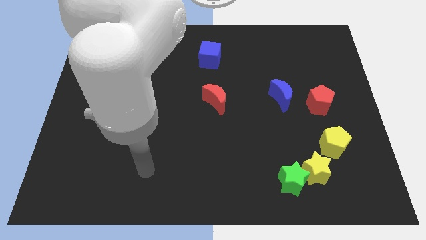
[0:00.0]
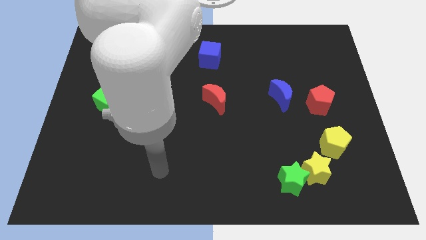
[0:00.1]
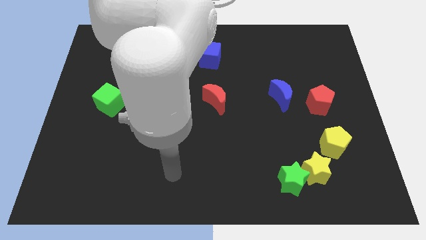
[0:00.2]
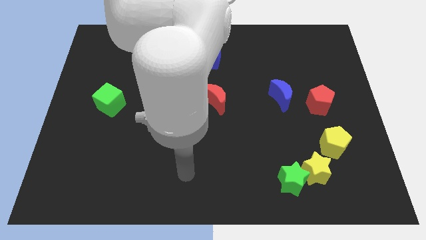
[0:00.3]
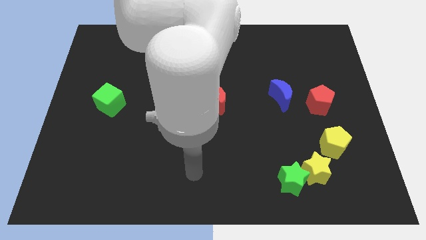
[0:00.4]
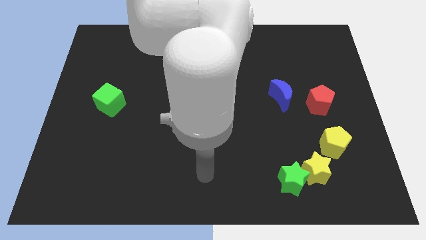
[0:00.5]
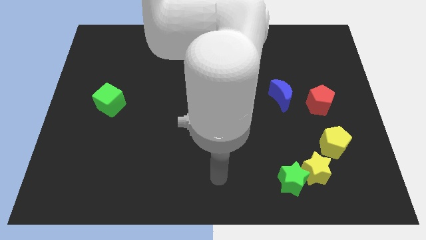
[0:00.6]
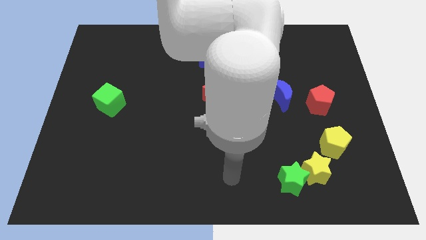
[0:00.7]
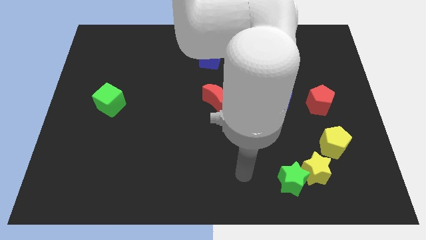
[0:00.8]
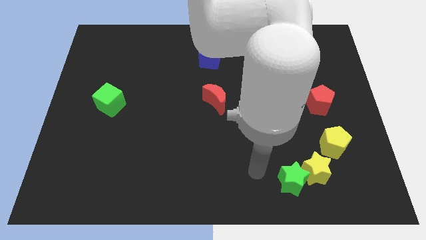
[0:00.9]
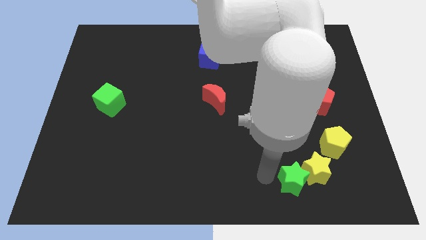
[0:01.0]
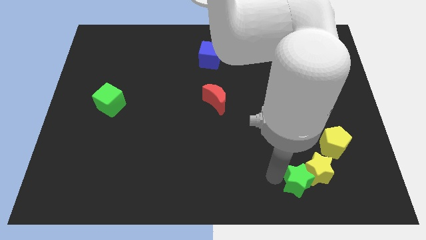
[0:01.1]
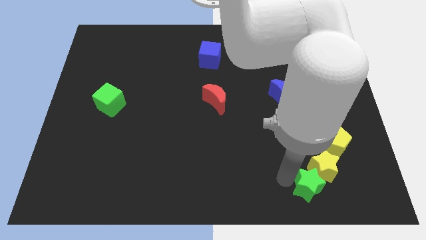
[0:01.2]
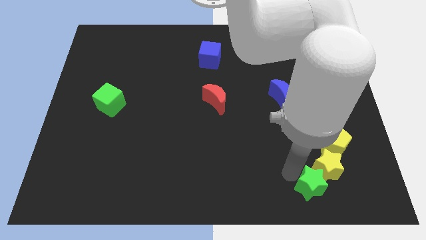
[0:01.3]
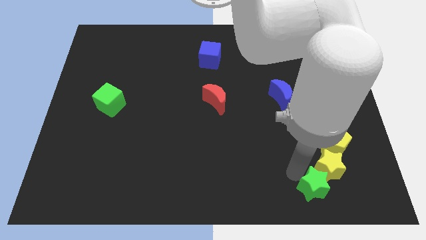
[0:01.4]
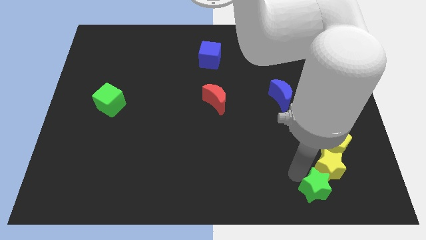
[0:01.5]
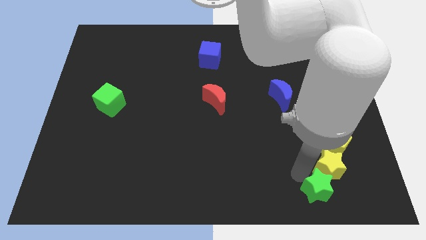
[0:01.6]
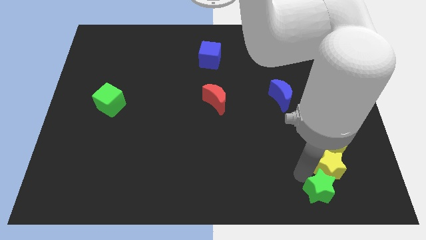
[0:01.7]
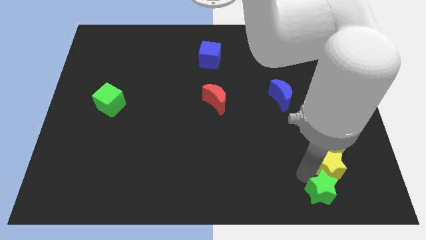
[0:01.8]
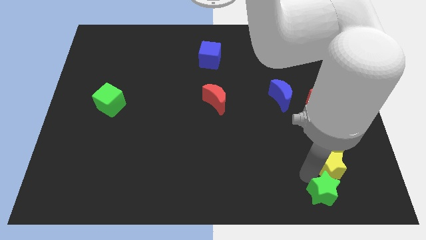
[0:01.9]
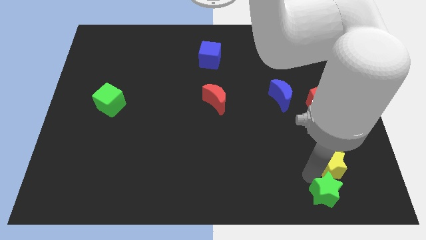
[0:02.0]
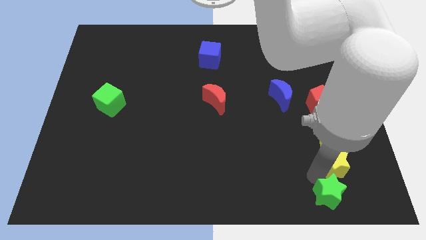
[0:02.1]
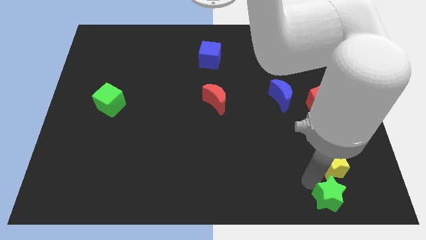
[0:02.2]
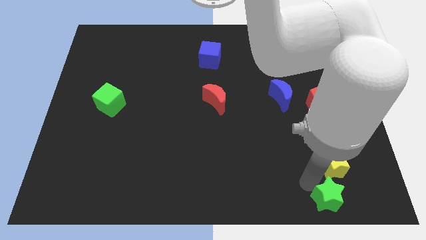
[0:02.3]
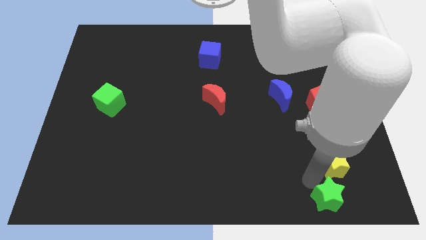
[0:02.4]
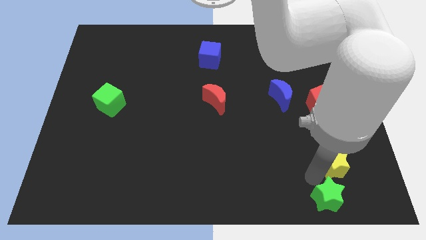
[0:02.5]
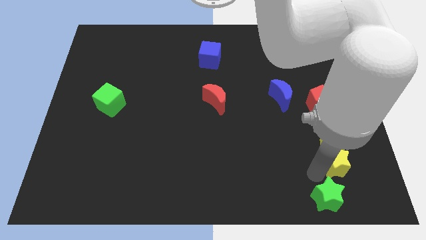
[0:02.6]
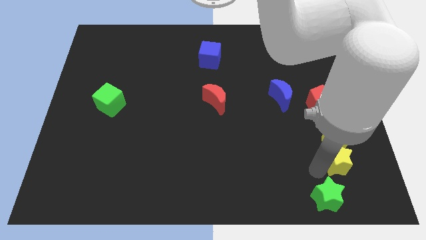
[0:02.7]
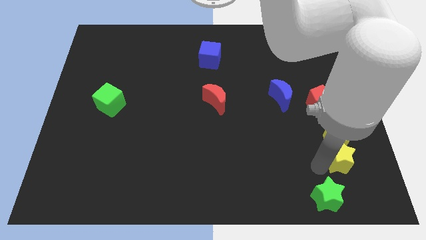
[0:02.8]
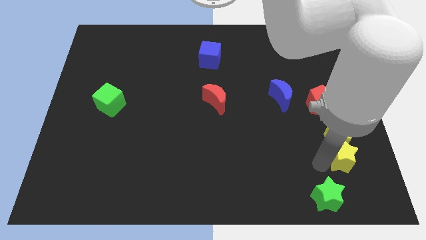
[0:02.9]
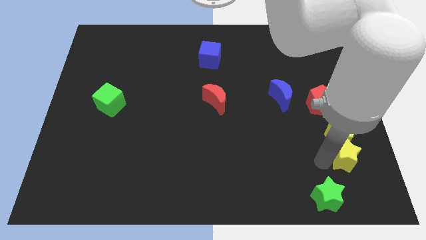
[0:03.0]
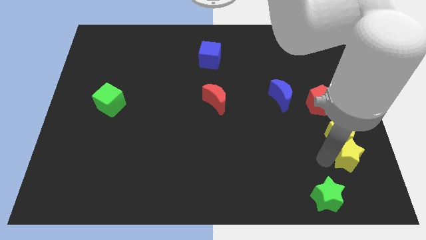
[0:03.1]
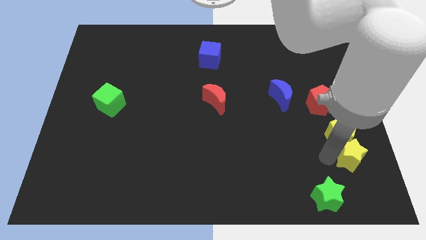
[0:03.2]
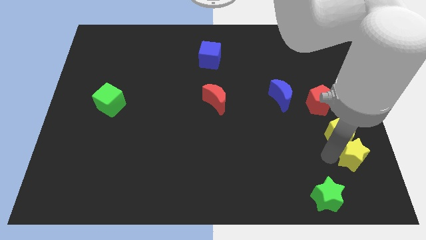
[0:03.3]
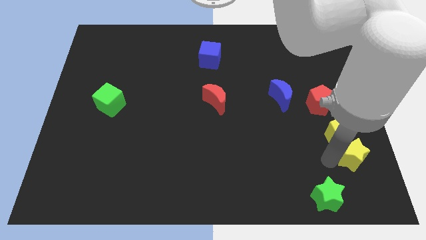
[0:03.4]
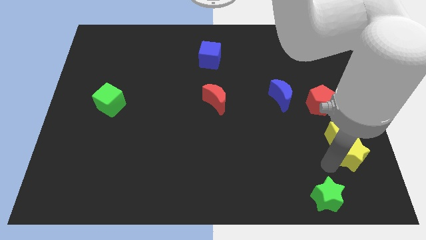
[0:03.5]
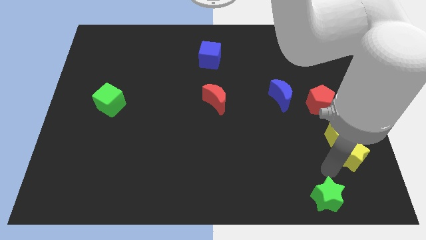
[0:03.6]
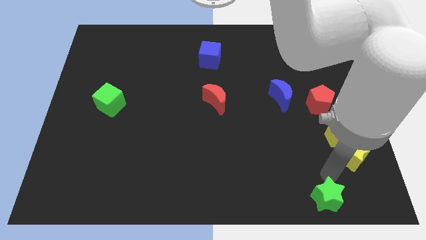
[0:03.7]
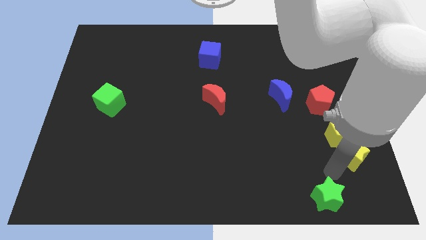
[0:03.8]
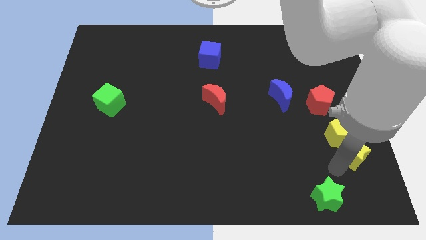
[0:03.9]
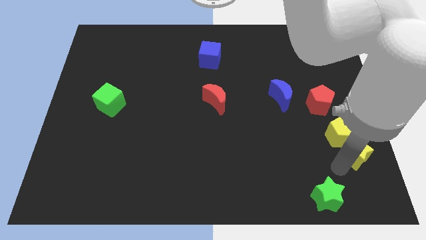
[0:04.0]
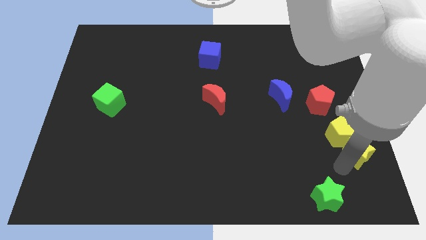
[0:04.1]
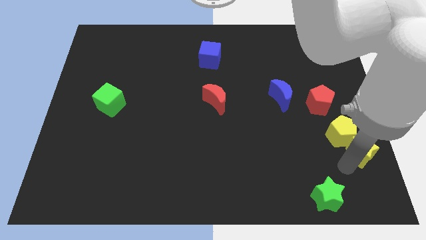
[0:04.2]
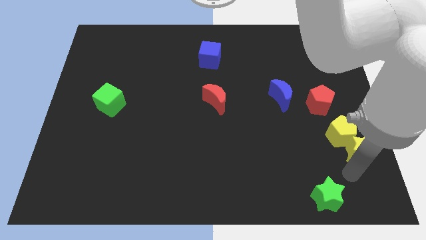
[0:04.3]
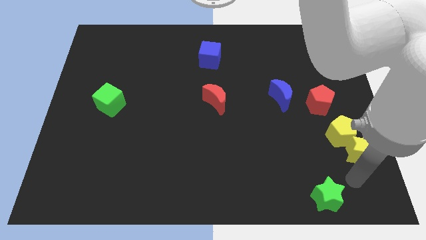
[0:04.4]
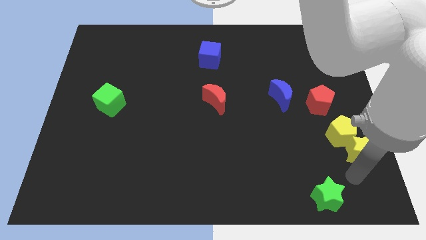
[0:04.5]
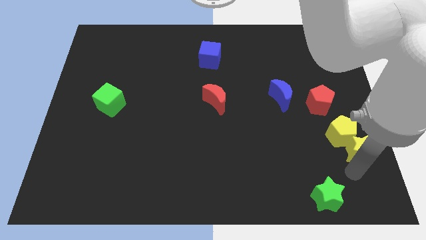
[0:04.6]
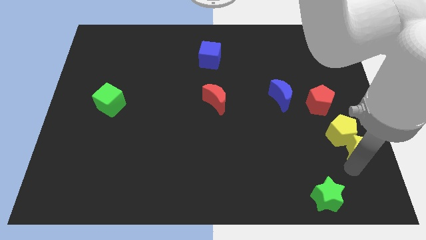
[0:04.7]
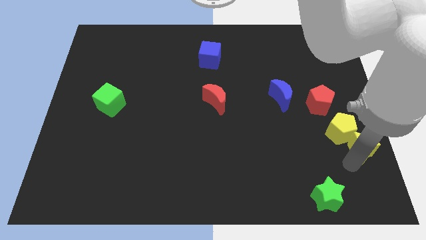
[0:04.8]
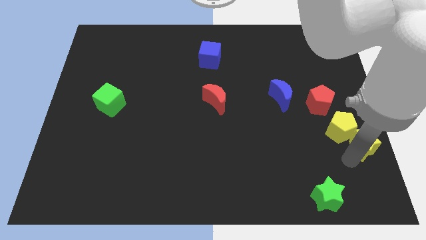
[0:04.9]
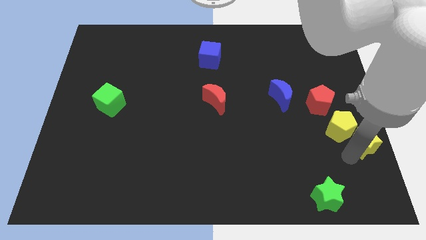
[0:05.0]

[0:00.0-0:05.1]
slide the yellow star to the right side

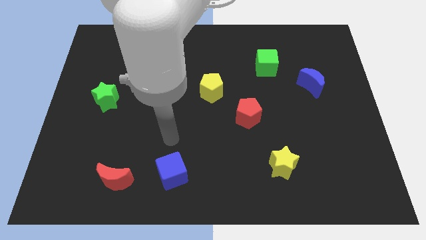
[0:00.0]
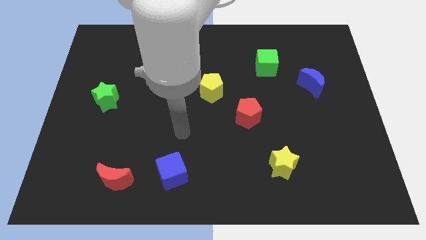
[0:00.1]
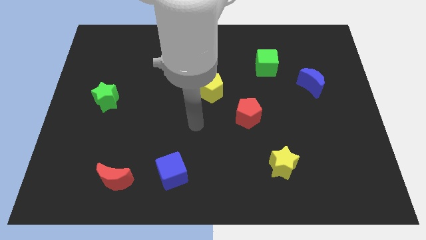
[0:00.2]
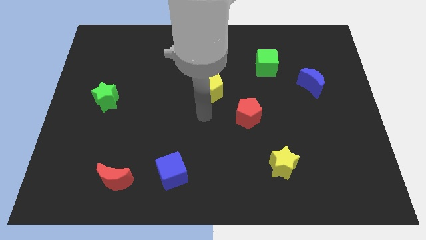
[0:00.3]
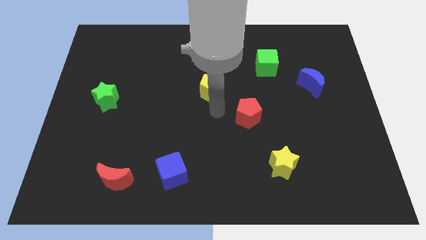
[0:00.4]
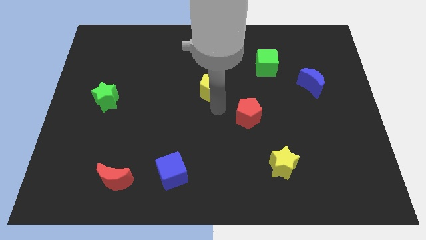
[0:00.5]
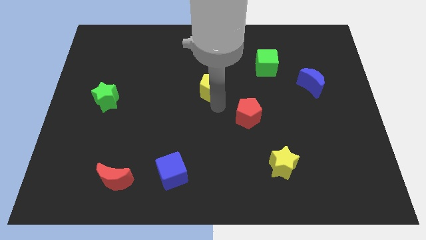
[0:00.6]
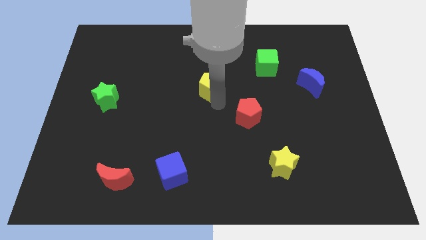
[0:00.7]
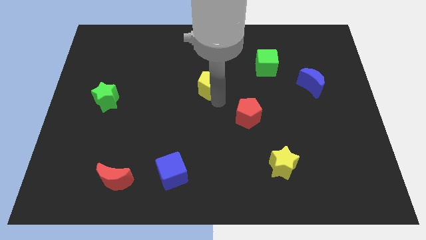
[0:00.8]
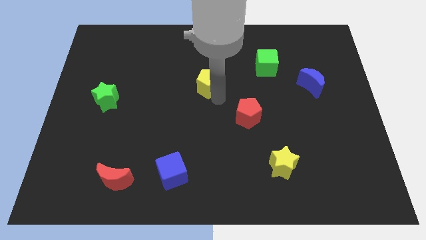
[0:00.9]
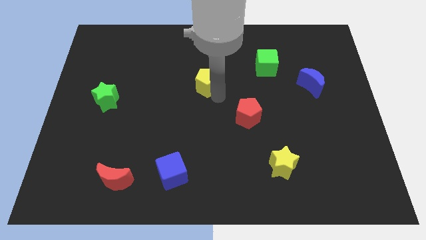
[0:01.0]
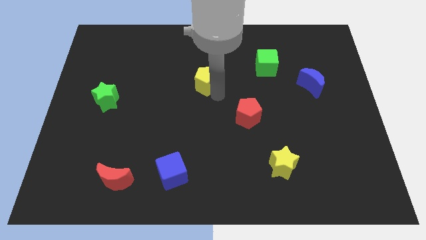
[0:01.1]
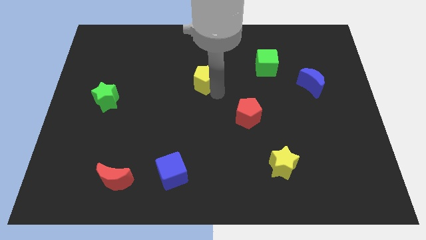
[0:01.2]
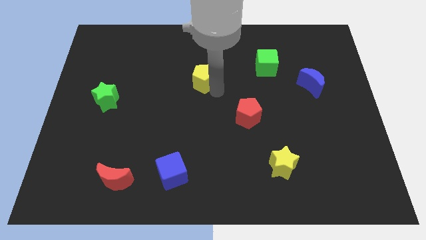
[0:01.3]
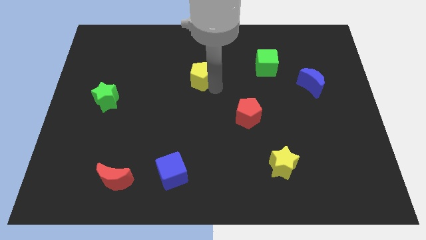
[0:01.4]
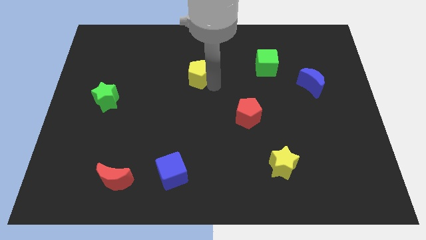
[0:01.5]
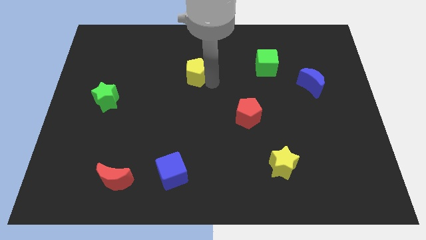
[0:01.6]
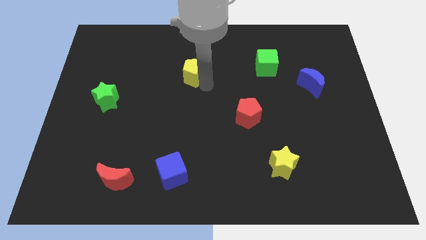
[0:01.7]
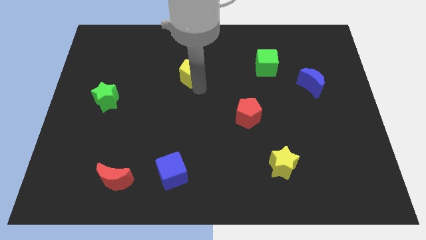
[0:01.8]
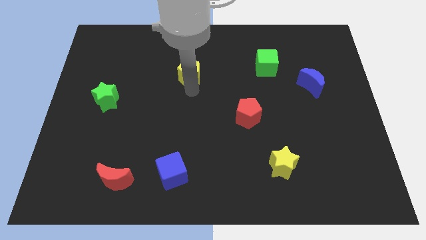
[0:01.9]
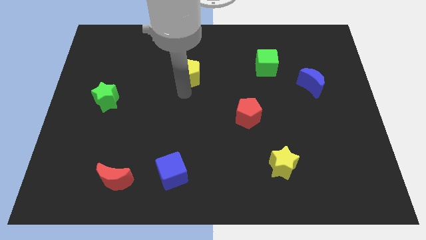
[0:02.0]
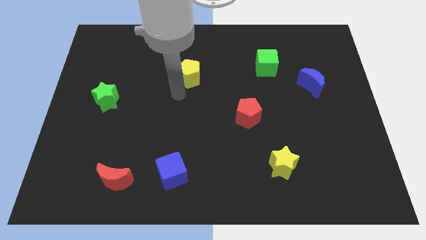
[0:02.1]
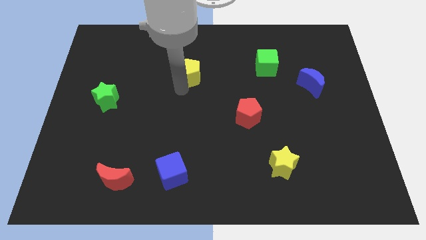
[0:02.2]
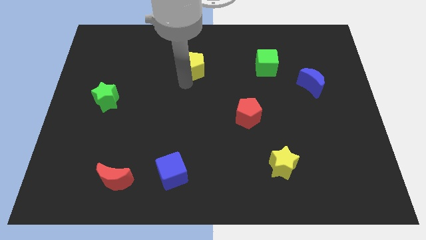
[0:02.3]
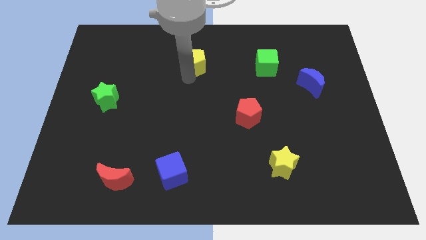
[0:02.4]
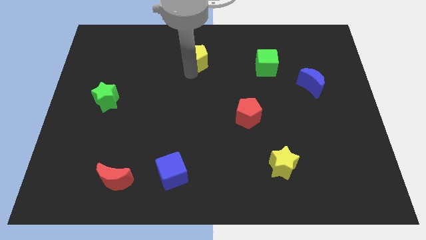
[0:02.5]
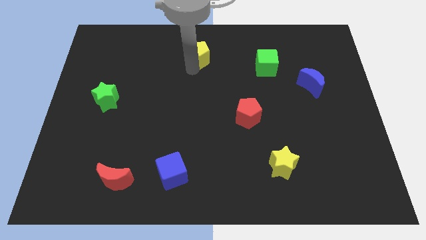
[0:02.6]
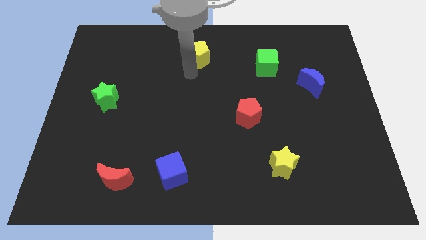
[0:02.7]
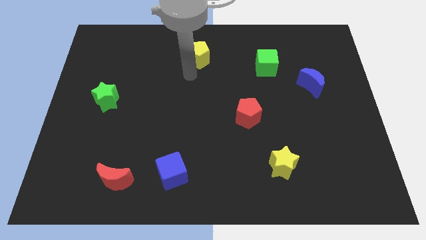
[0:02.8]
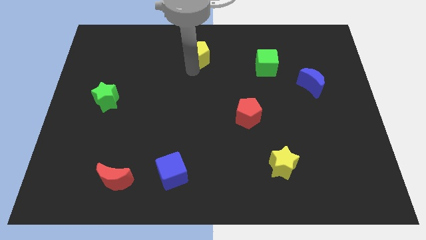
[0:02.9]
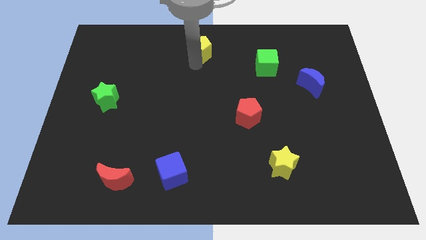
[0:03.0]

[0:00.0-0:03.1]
slide the yellow pentagon to the top side
